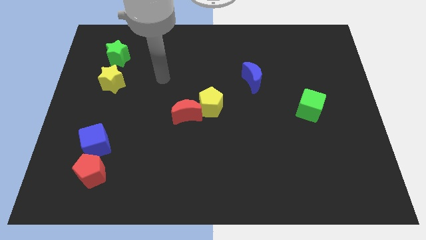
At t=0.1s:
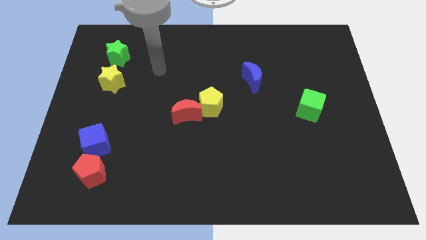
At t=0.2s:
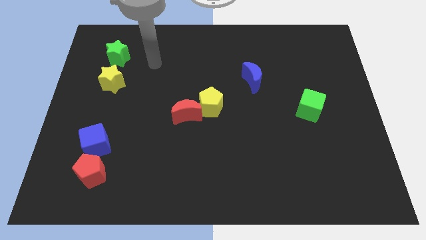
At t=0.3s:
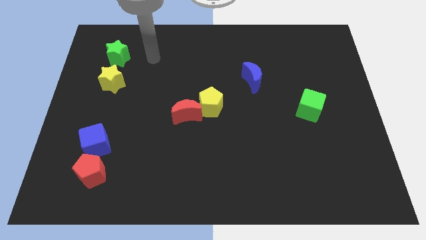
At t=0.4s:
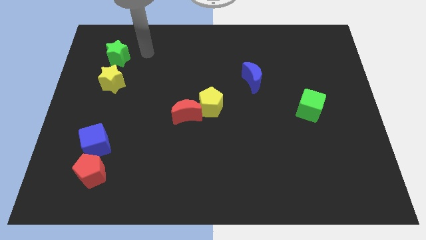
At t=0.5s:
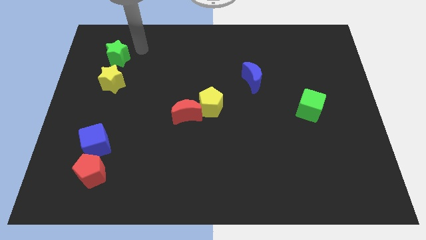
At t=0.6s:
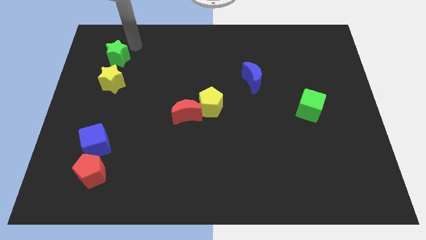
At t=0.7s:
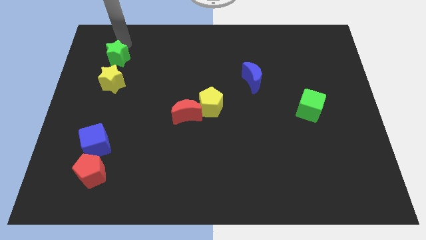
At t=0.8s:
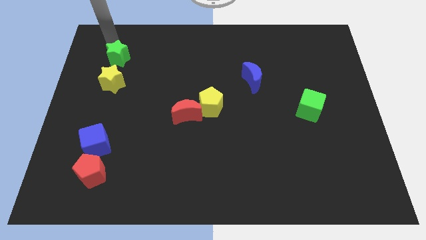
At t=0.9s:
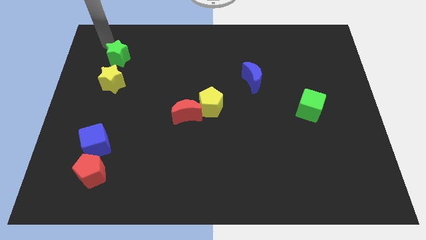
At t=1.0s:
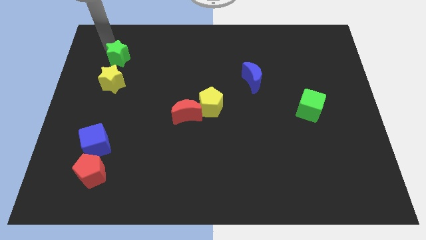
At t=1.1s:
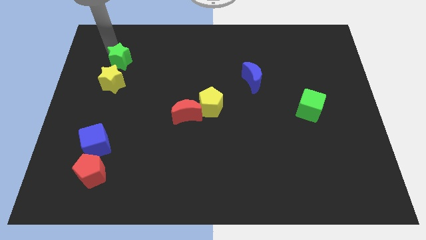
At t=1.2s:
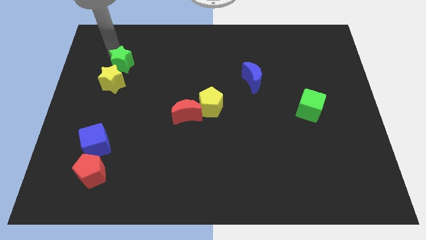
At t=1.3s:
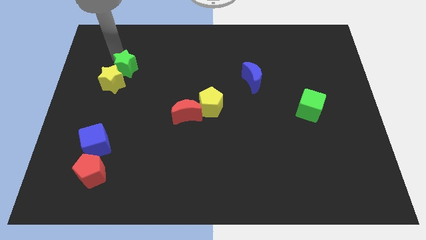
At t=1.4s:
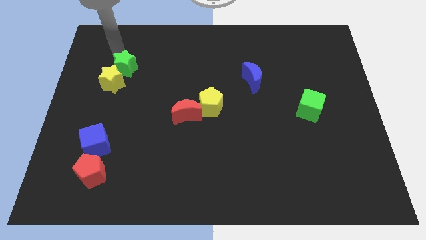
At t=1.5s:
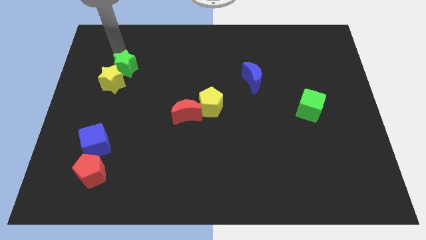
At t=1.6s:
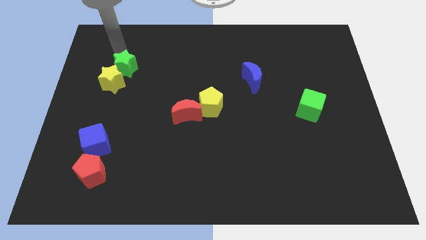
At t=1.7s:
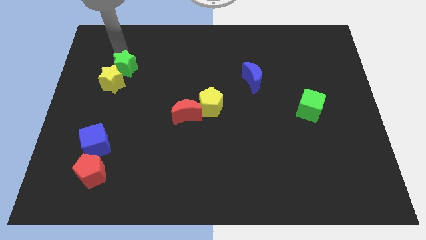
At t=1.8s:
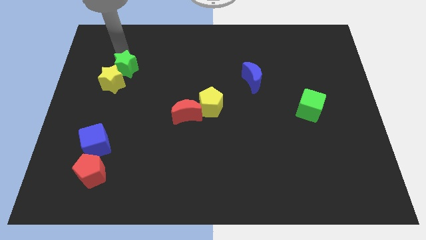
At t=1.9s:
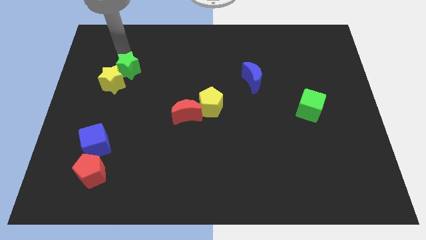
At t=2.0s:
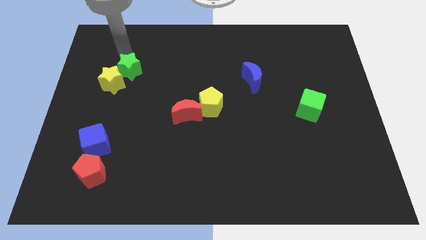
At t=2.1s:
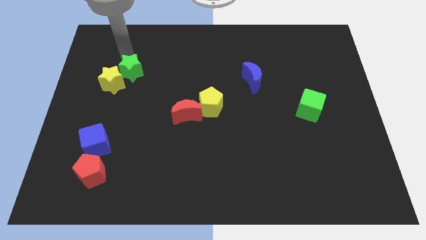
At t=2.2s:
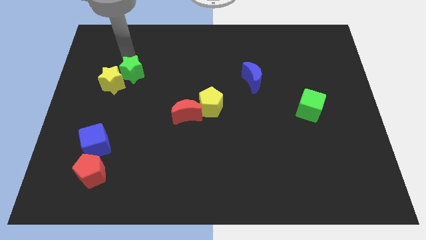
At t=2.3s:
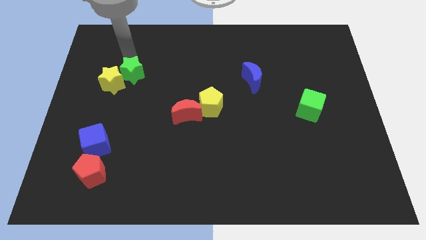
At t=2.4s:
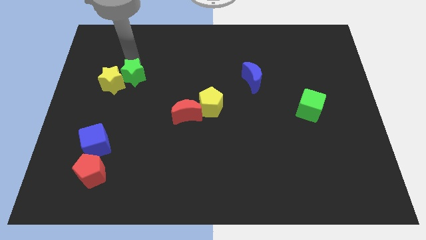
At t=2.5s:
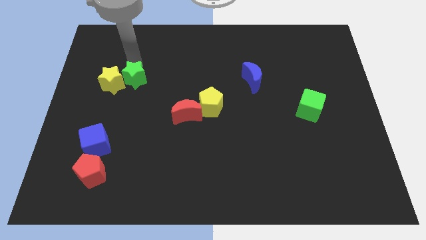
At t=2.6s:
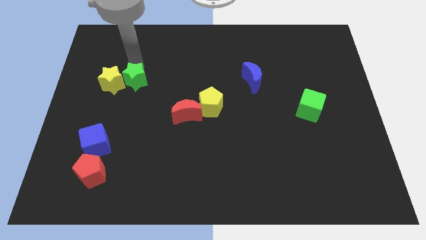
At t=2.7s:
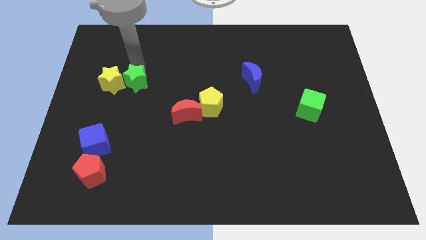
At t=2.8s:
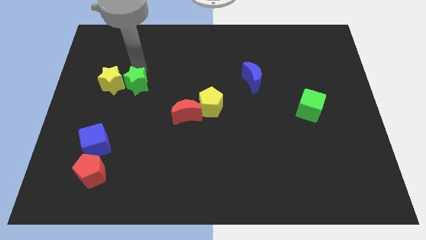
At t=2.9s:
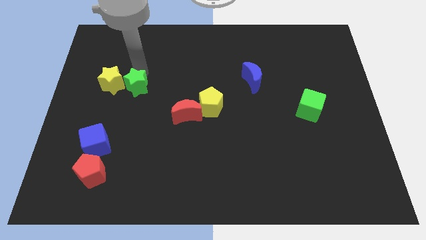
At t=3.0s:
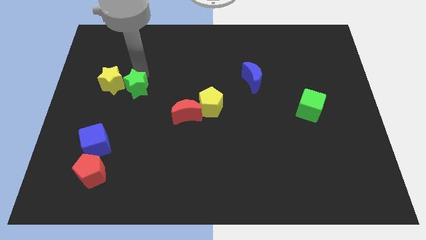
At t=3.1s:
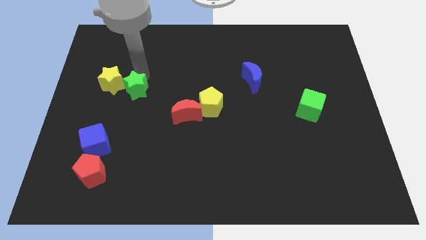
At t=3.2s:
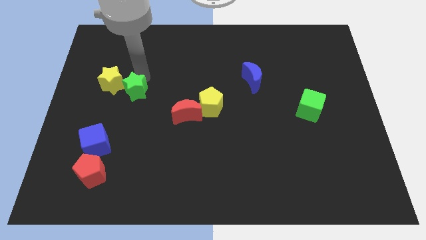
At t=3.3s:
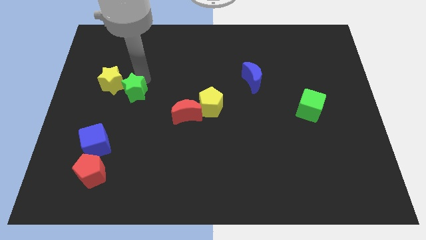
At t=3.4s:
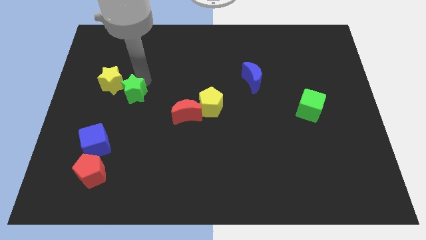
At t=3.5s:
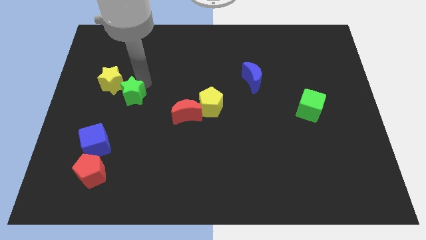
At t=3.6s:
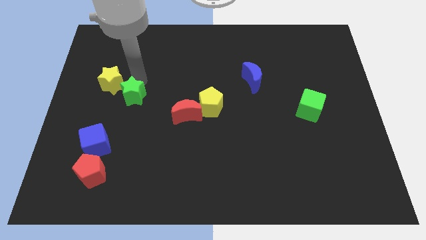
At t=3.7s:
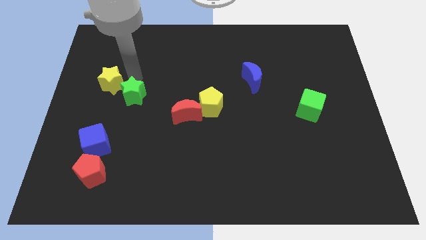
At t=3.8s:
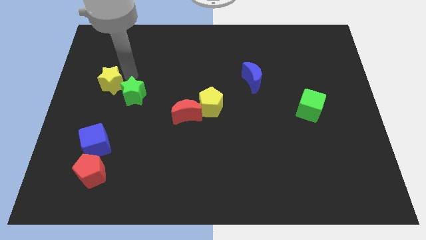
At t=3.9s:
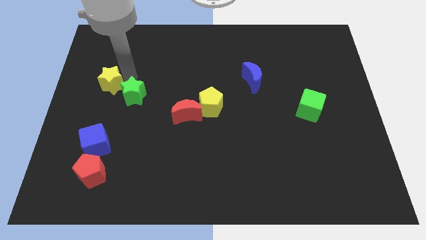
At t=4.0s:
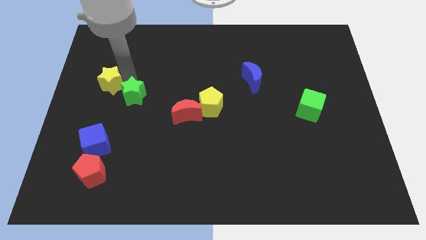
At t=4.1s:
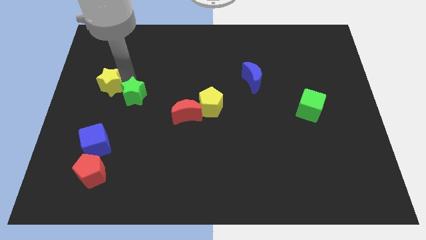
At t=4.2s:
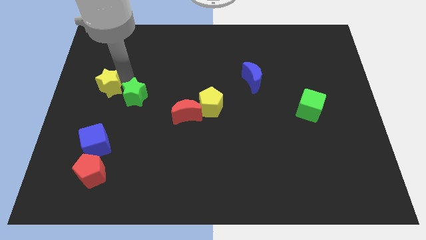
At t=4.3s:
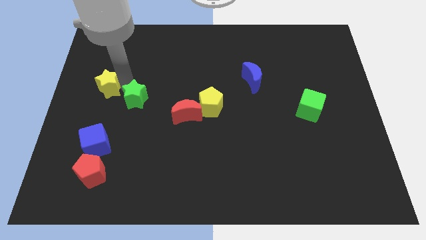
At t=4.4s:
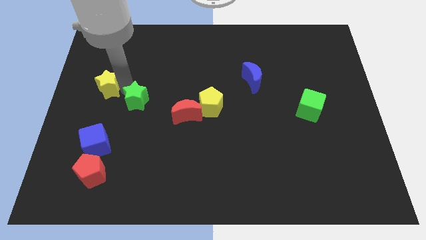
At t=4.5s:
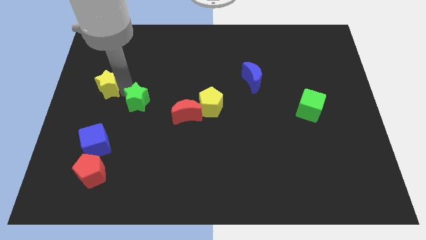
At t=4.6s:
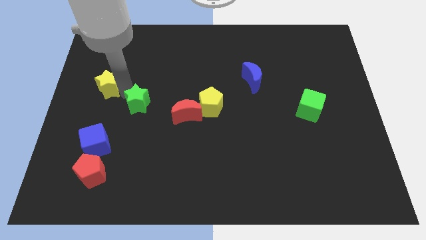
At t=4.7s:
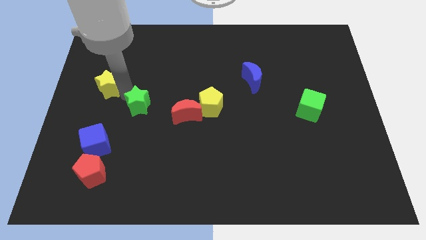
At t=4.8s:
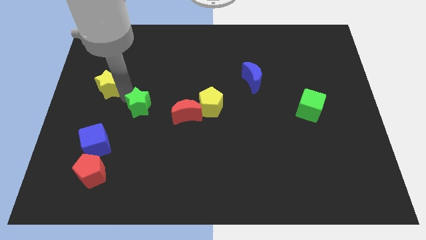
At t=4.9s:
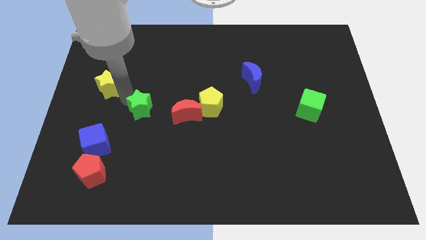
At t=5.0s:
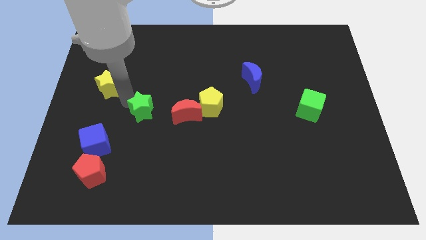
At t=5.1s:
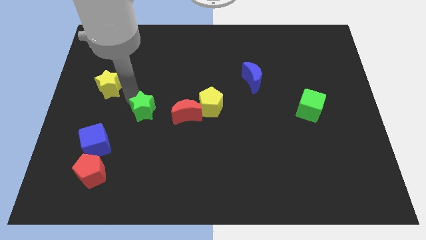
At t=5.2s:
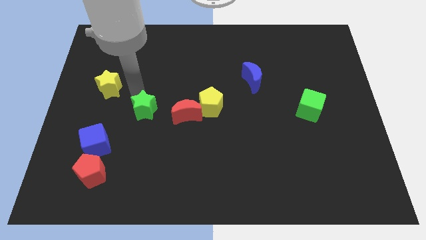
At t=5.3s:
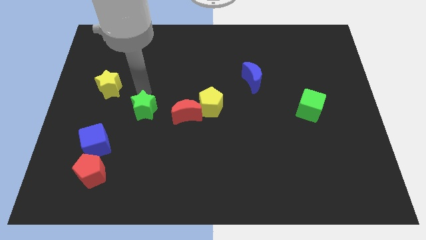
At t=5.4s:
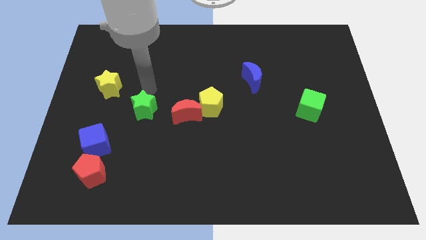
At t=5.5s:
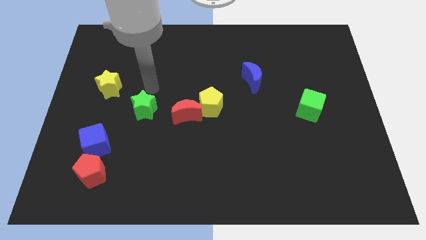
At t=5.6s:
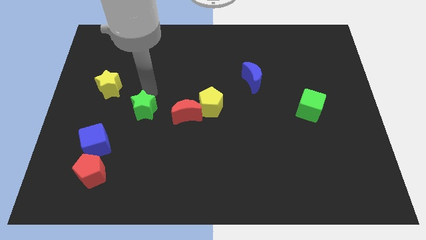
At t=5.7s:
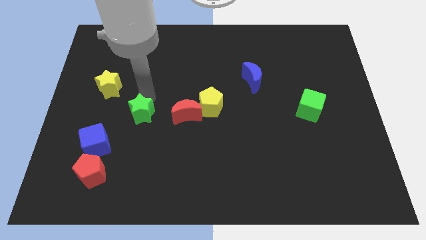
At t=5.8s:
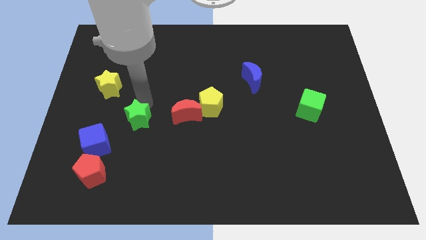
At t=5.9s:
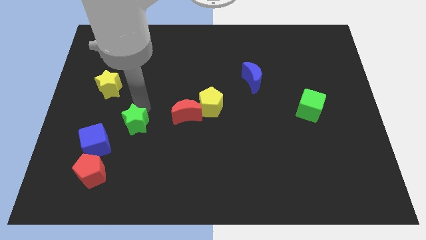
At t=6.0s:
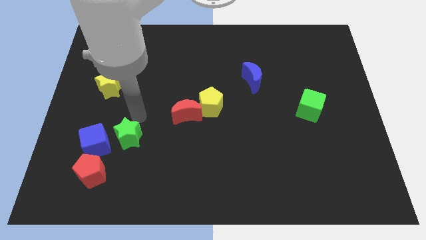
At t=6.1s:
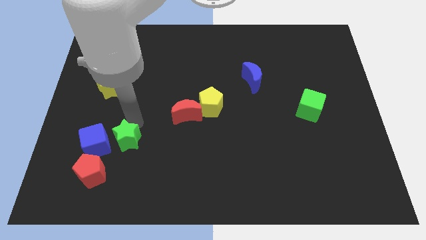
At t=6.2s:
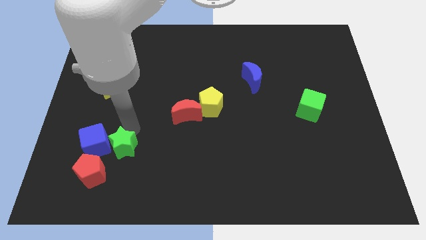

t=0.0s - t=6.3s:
put the green star to the bottom right of the blue cube

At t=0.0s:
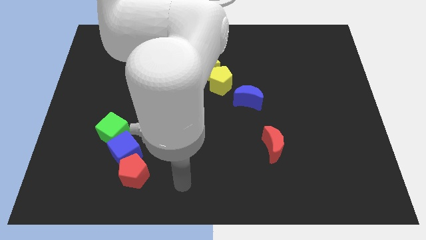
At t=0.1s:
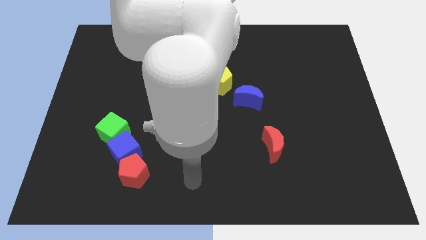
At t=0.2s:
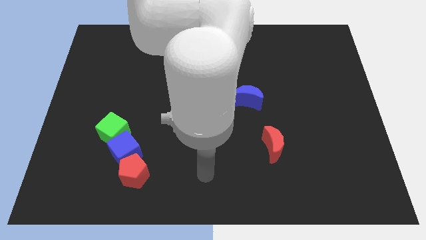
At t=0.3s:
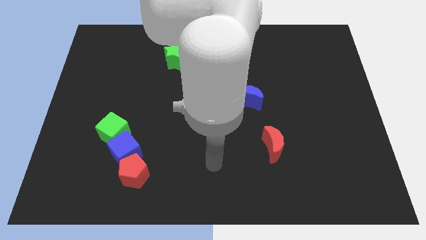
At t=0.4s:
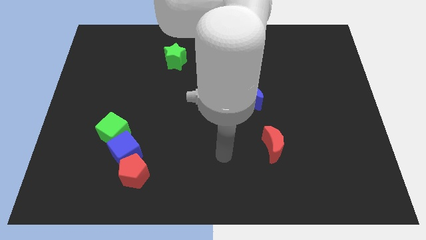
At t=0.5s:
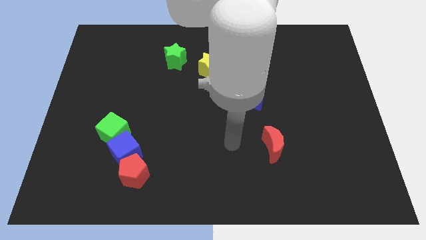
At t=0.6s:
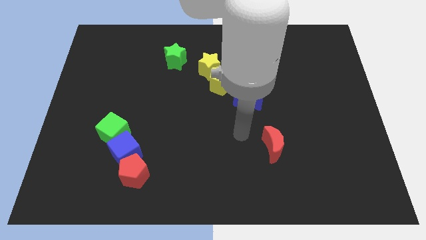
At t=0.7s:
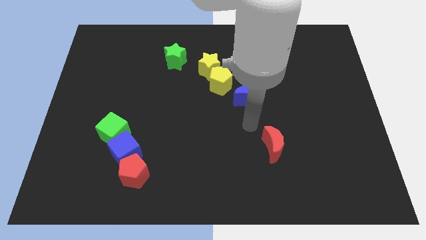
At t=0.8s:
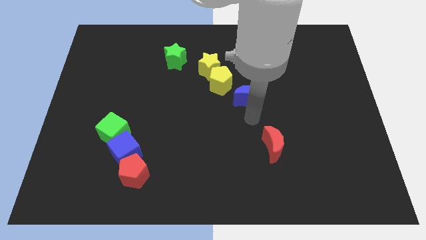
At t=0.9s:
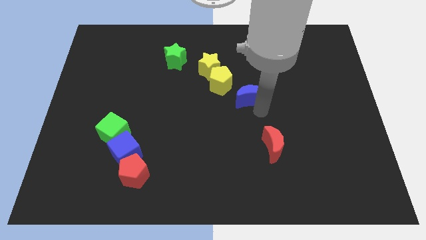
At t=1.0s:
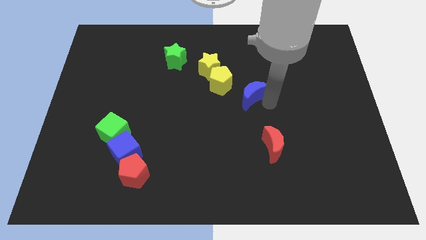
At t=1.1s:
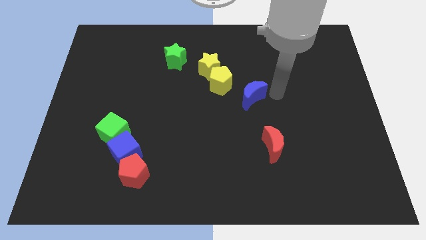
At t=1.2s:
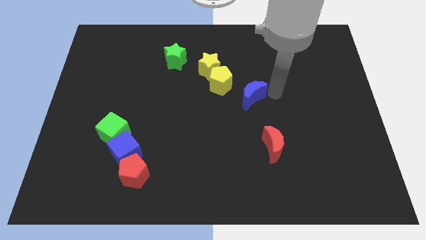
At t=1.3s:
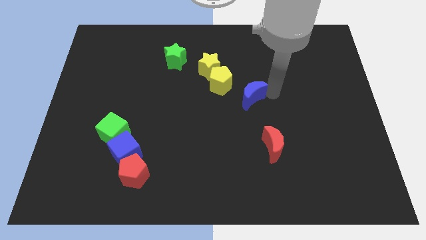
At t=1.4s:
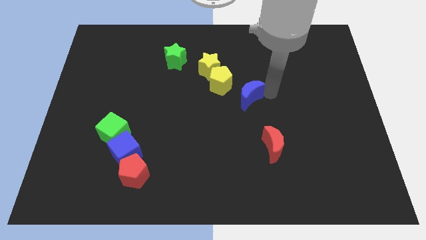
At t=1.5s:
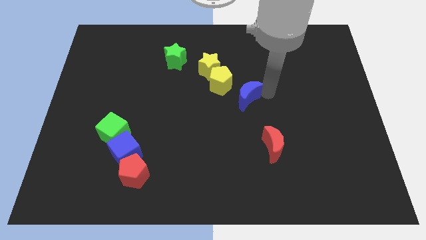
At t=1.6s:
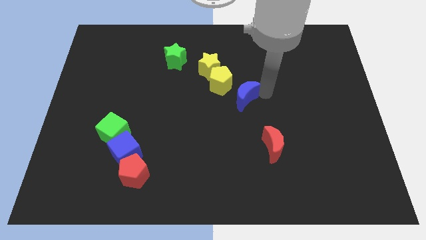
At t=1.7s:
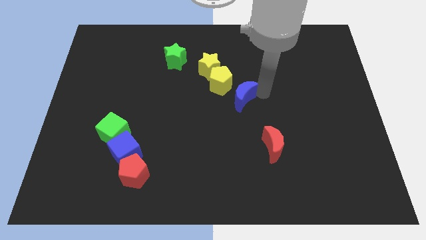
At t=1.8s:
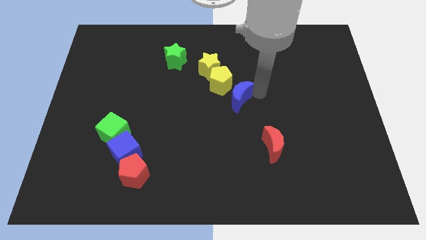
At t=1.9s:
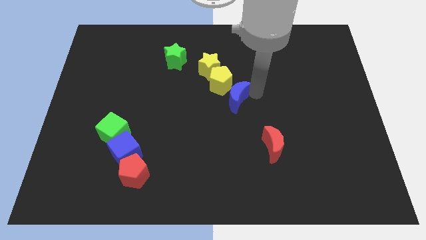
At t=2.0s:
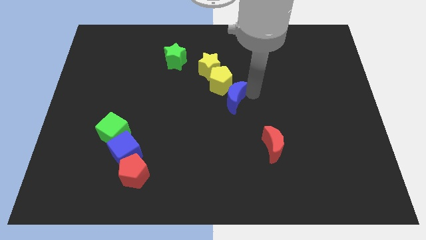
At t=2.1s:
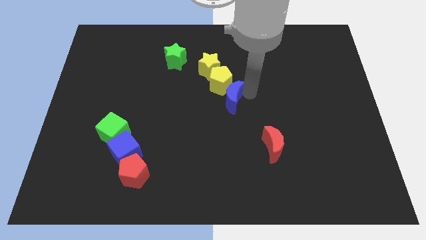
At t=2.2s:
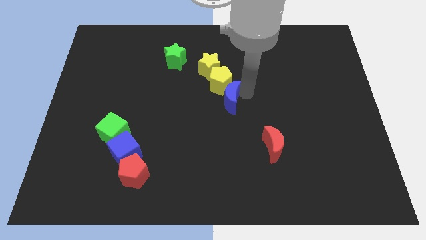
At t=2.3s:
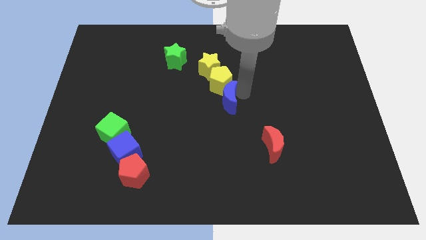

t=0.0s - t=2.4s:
move the blue moon to the bottom side of the yellow star
